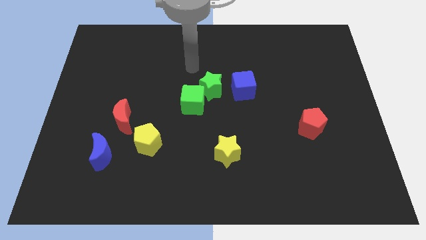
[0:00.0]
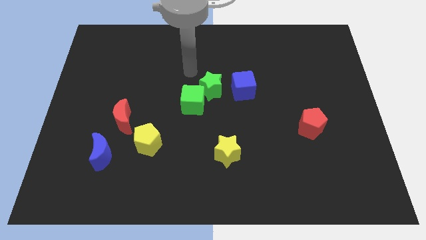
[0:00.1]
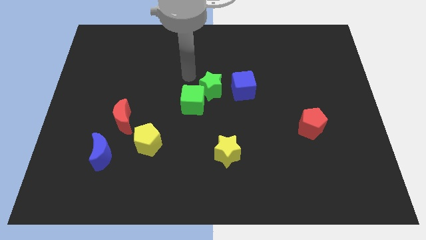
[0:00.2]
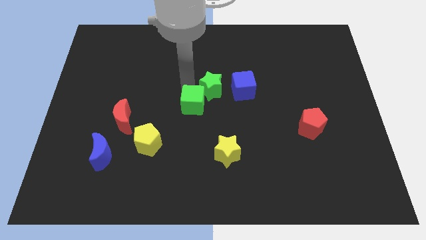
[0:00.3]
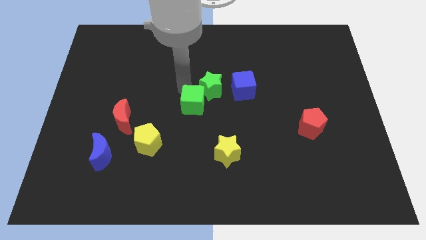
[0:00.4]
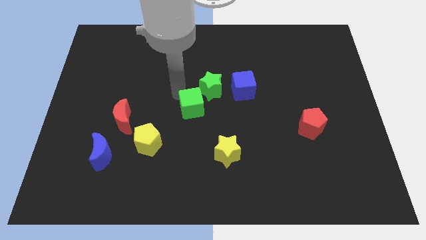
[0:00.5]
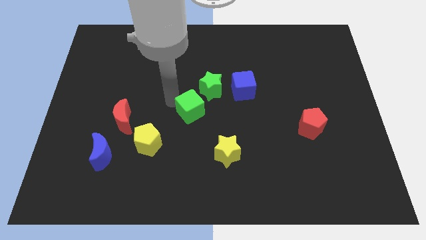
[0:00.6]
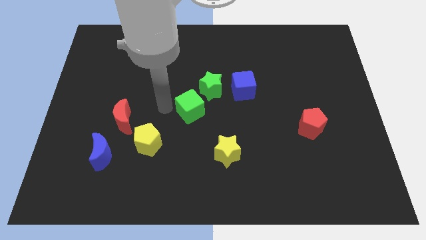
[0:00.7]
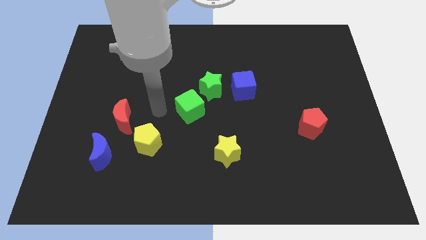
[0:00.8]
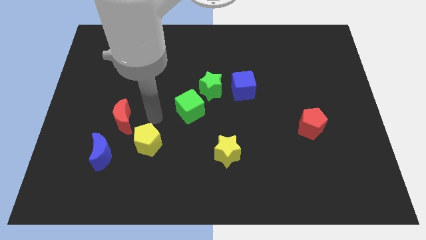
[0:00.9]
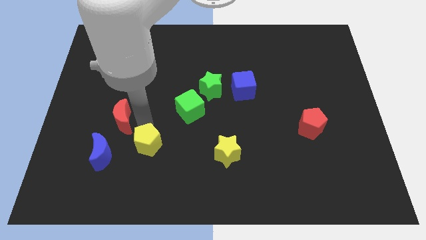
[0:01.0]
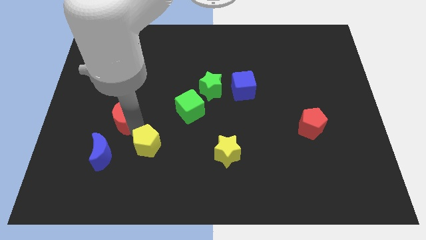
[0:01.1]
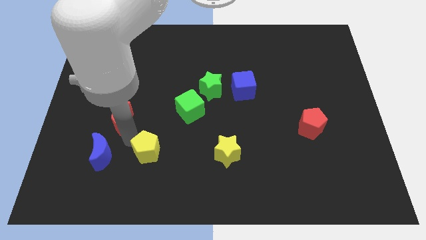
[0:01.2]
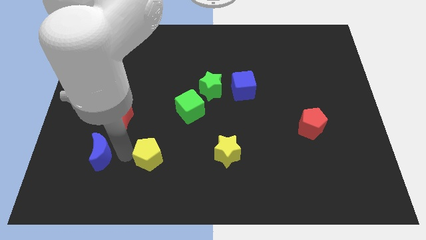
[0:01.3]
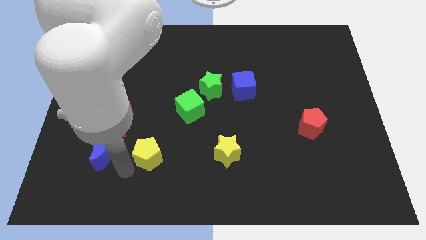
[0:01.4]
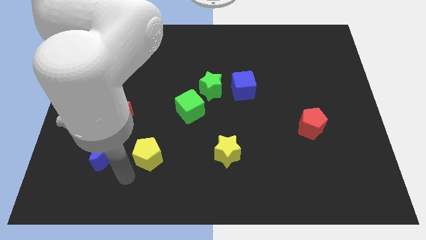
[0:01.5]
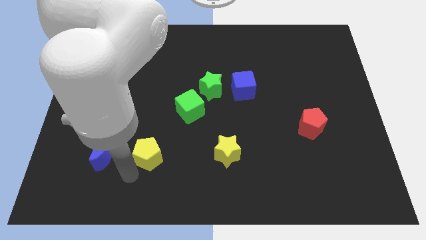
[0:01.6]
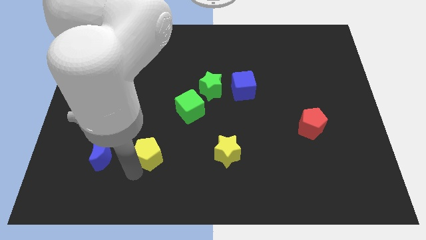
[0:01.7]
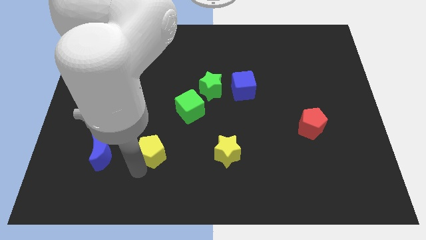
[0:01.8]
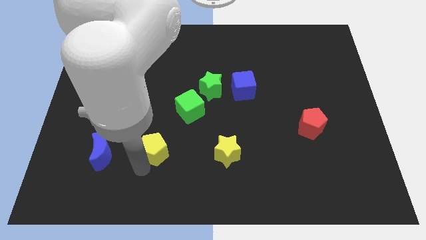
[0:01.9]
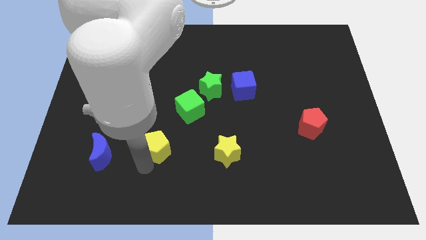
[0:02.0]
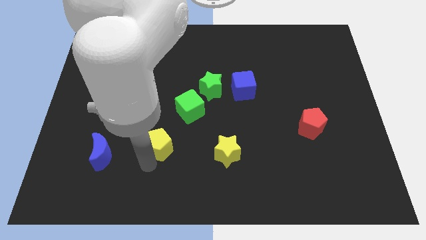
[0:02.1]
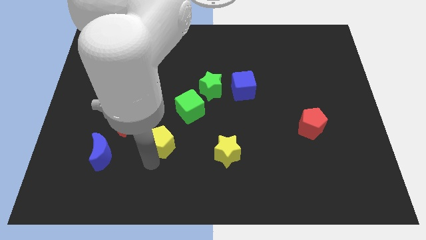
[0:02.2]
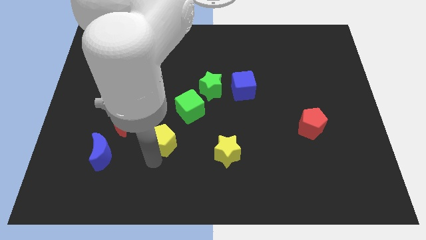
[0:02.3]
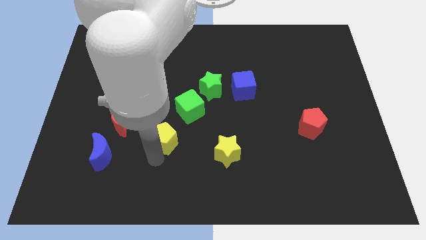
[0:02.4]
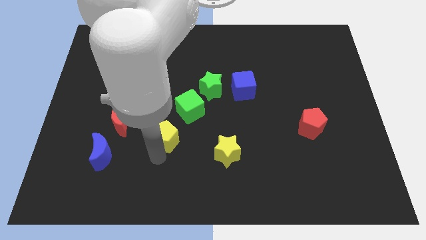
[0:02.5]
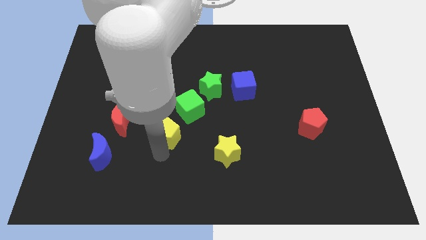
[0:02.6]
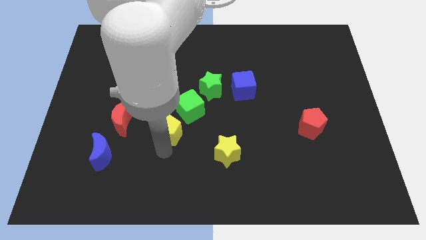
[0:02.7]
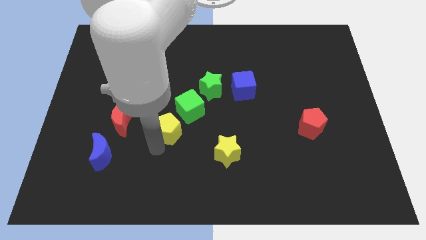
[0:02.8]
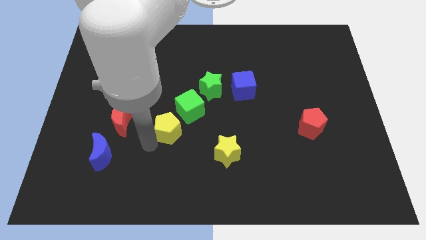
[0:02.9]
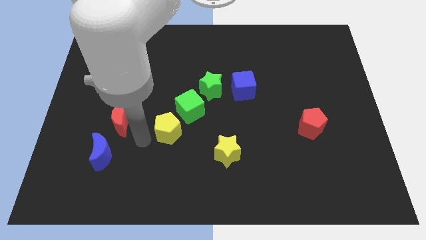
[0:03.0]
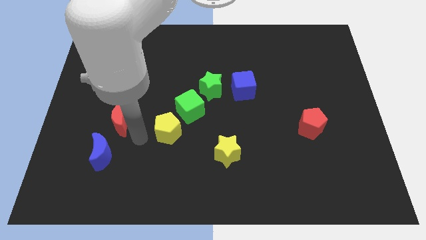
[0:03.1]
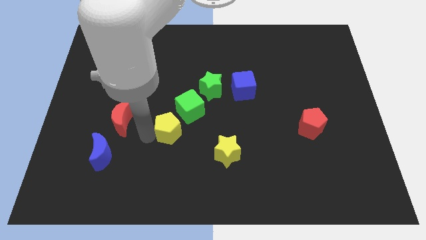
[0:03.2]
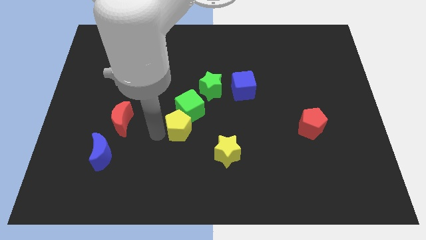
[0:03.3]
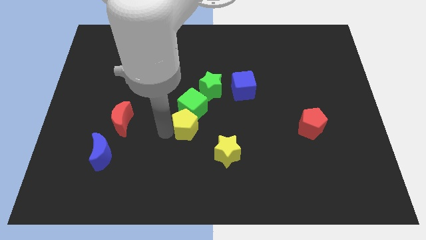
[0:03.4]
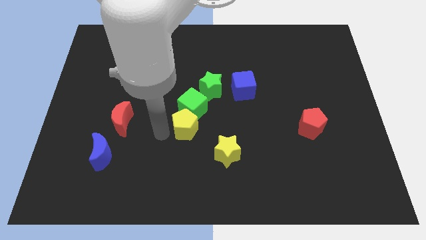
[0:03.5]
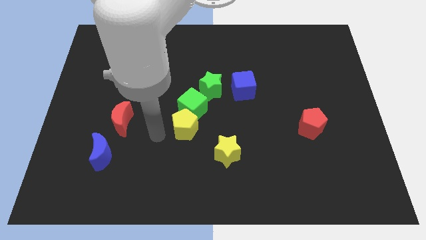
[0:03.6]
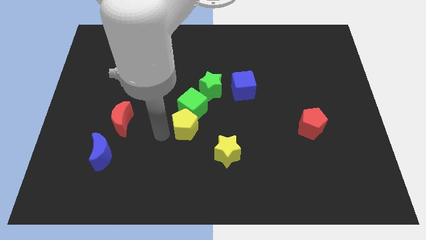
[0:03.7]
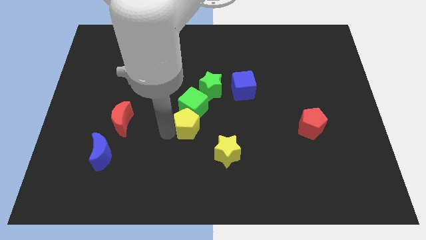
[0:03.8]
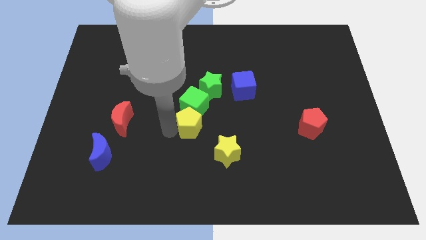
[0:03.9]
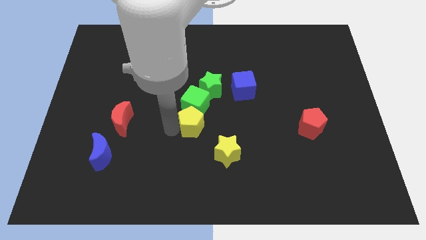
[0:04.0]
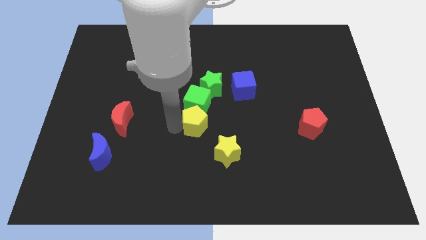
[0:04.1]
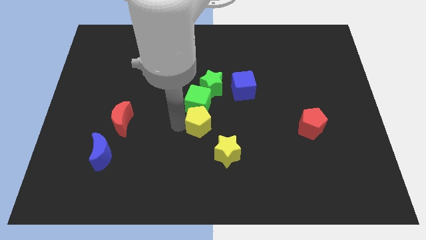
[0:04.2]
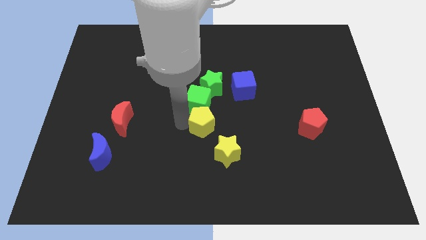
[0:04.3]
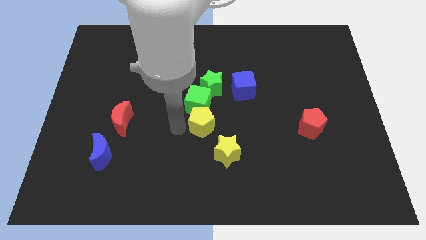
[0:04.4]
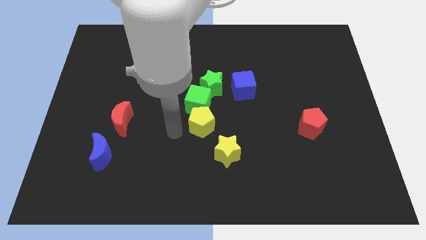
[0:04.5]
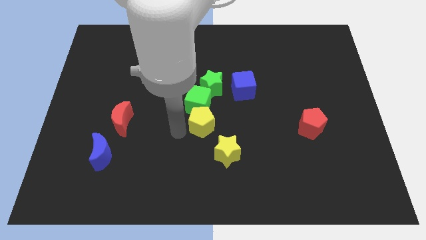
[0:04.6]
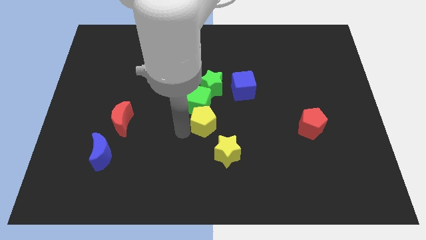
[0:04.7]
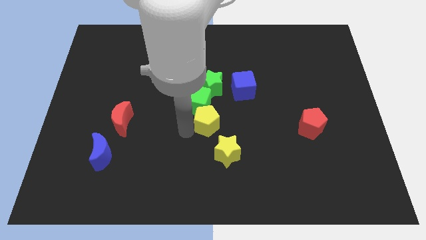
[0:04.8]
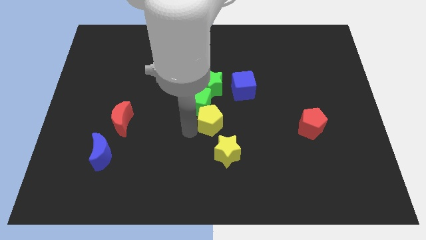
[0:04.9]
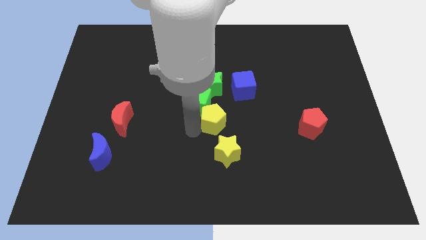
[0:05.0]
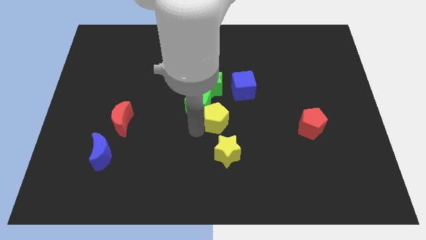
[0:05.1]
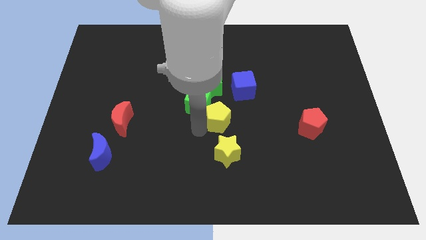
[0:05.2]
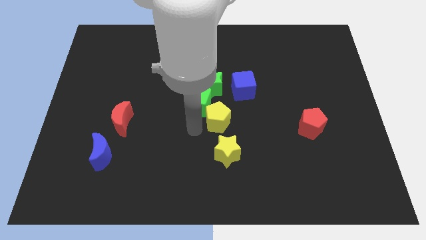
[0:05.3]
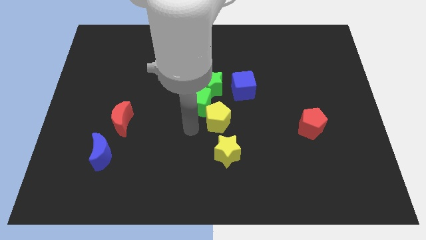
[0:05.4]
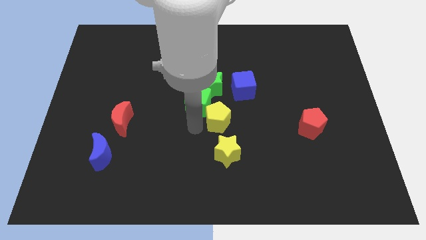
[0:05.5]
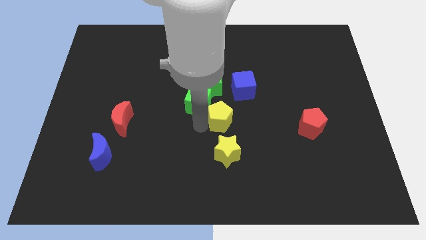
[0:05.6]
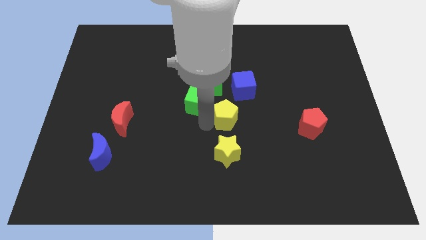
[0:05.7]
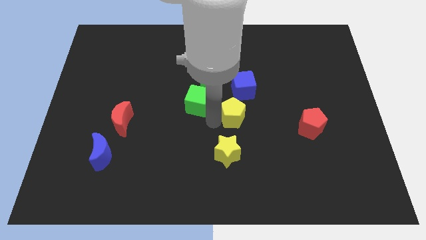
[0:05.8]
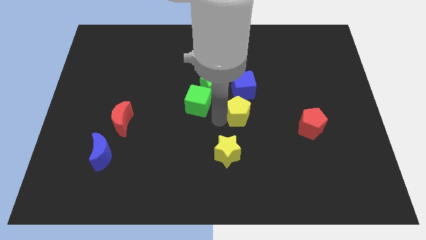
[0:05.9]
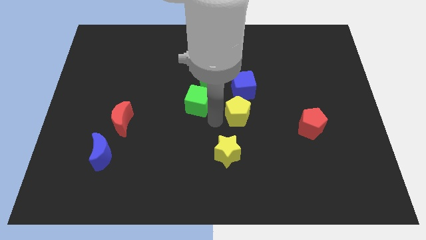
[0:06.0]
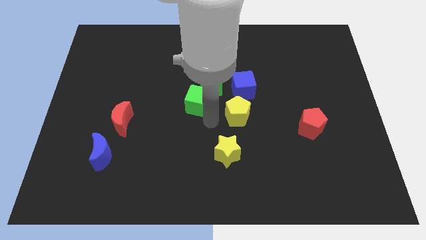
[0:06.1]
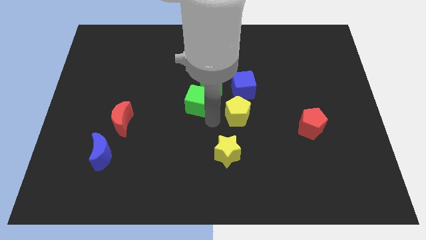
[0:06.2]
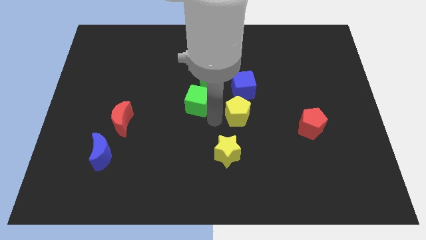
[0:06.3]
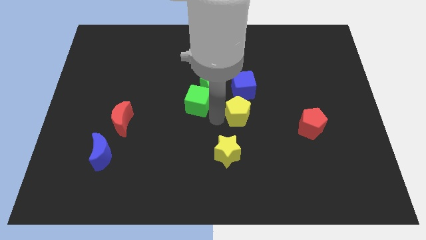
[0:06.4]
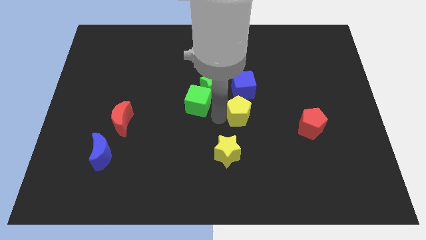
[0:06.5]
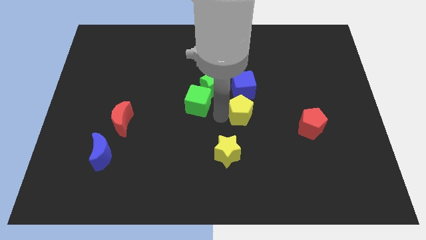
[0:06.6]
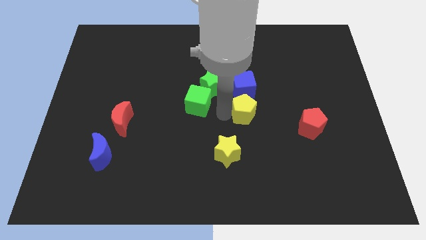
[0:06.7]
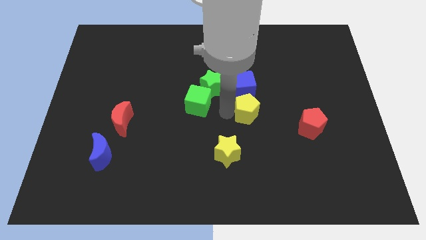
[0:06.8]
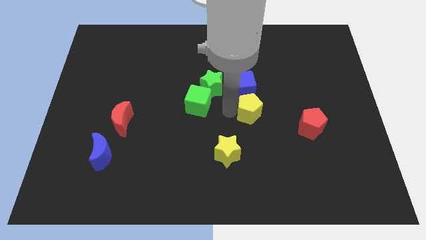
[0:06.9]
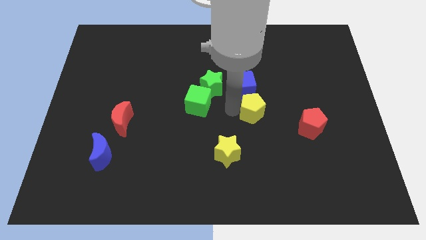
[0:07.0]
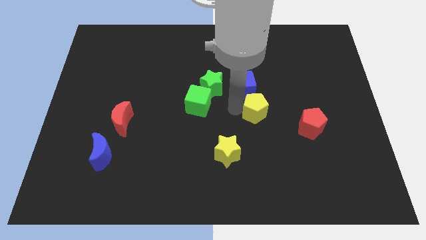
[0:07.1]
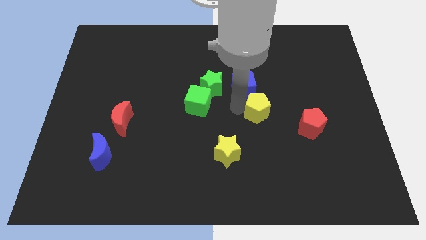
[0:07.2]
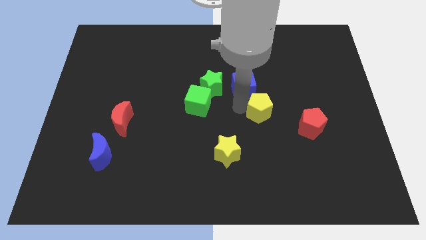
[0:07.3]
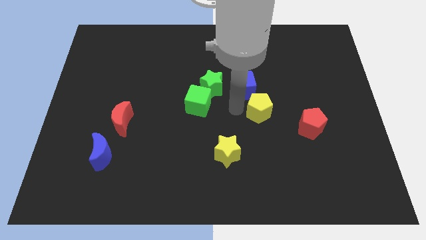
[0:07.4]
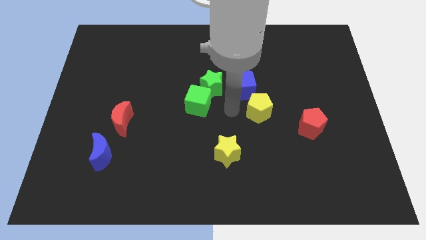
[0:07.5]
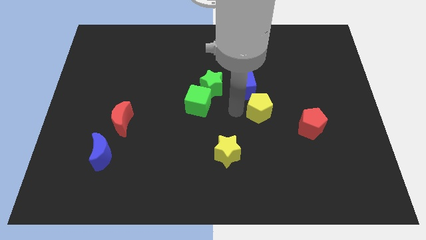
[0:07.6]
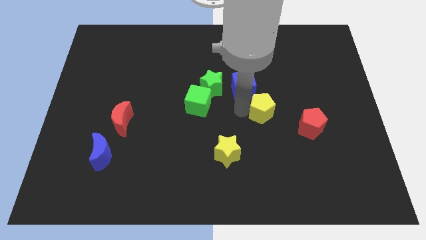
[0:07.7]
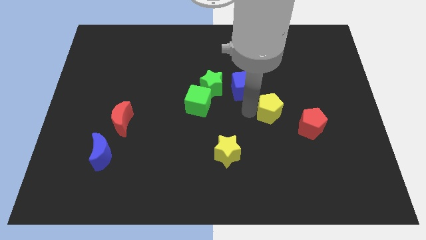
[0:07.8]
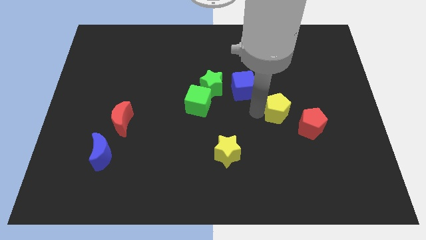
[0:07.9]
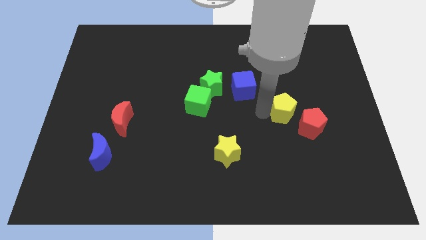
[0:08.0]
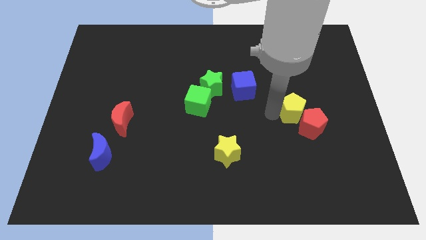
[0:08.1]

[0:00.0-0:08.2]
slide the yellow pentagon above the red pentagon
